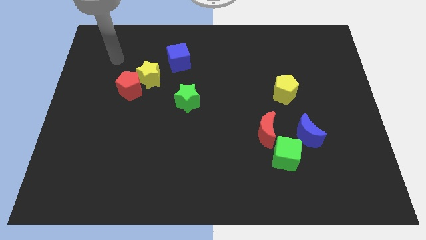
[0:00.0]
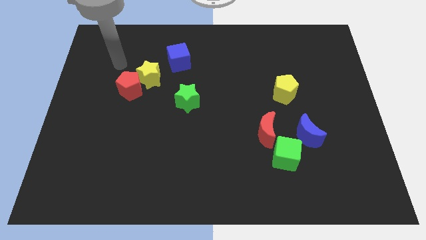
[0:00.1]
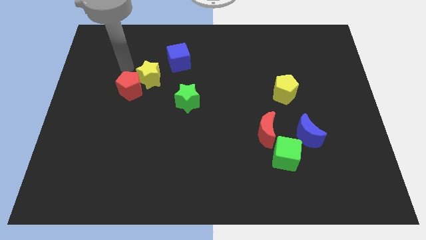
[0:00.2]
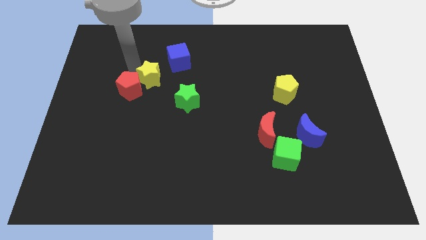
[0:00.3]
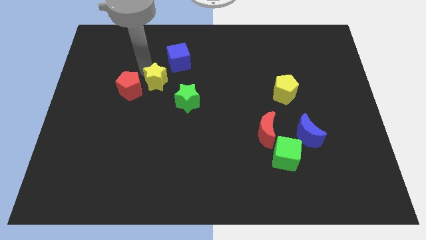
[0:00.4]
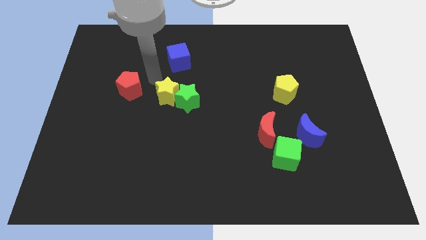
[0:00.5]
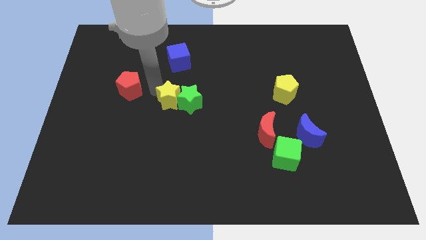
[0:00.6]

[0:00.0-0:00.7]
separate the red pentagon from the yellow star

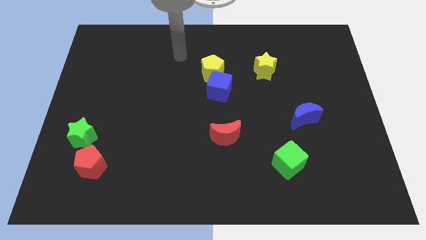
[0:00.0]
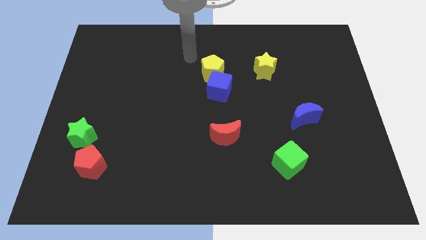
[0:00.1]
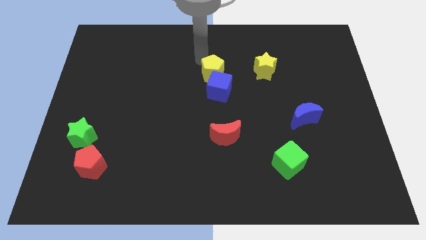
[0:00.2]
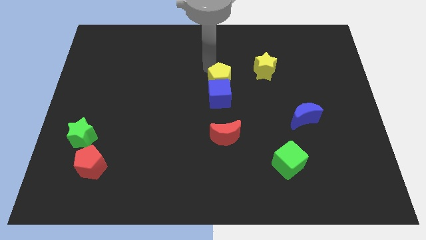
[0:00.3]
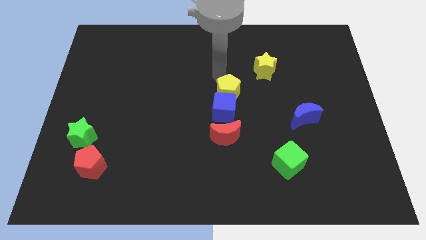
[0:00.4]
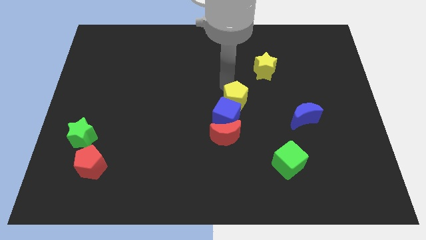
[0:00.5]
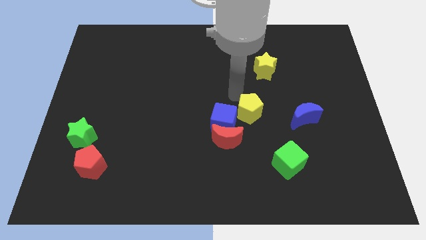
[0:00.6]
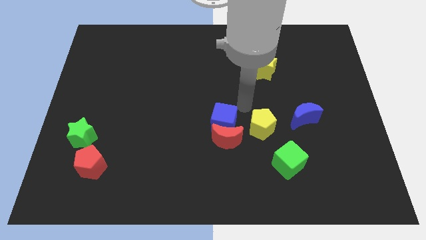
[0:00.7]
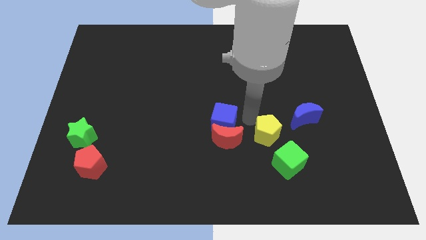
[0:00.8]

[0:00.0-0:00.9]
pull the blue cube apart from the yellow pentagon

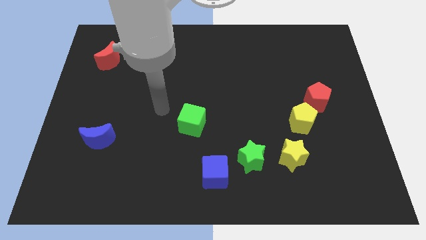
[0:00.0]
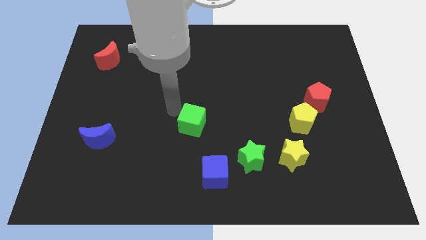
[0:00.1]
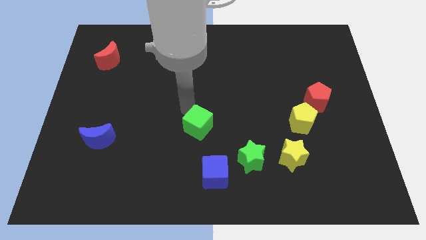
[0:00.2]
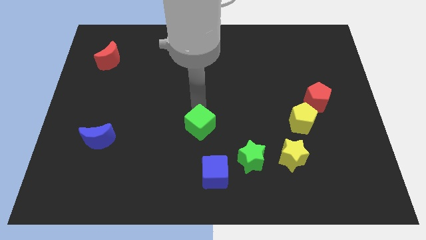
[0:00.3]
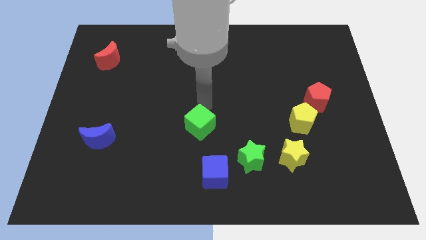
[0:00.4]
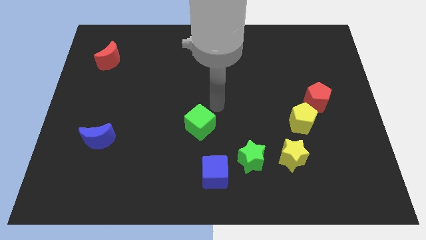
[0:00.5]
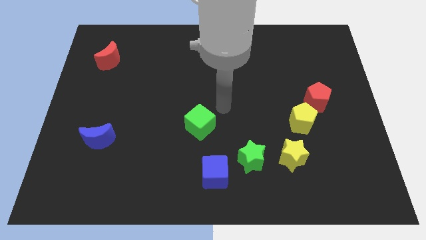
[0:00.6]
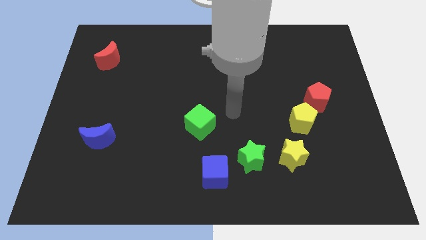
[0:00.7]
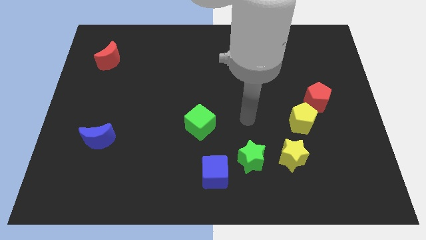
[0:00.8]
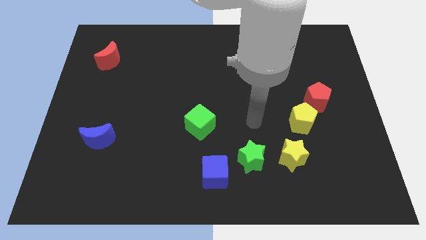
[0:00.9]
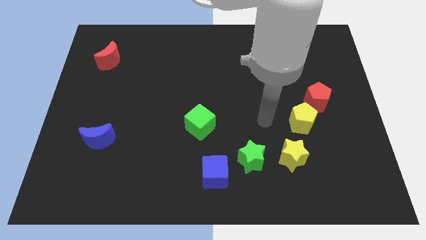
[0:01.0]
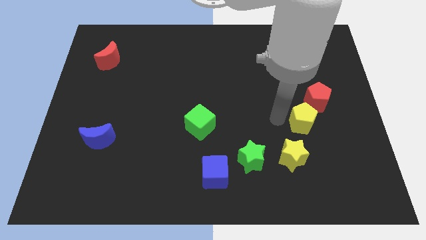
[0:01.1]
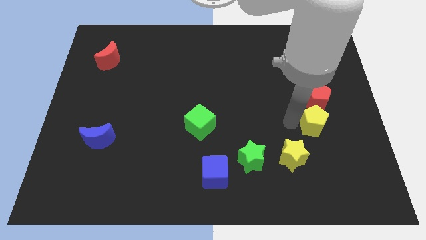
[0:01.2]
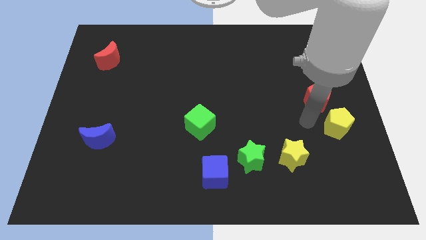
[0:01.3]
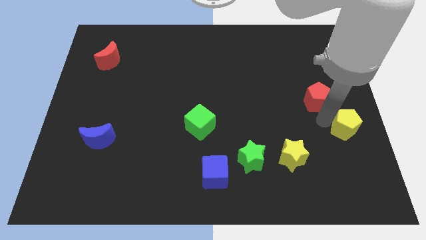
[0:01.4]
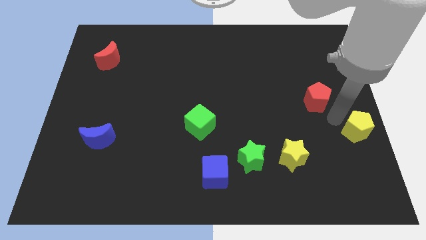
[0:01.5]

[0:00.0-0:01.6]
pull the red pentagon apart from the yellow pentagon

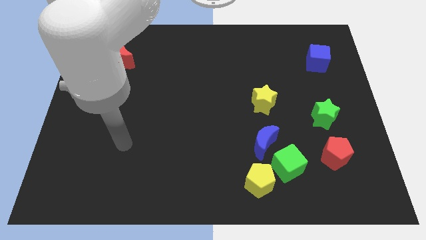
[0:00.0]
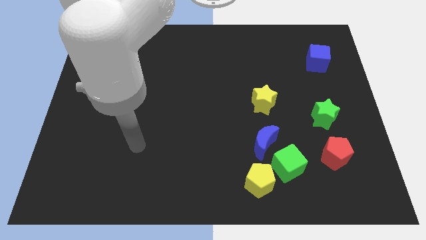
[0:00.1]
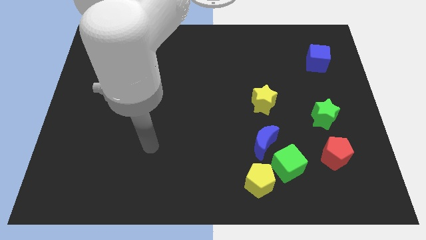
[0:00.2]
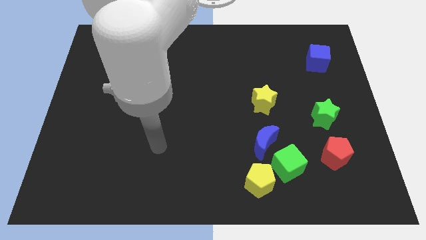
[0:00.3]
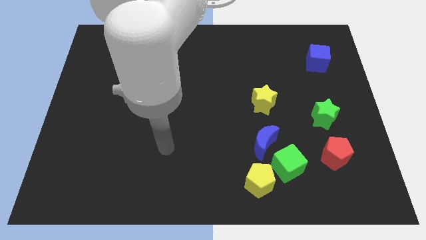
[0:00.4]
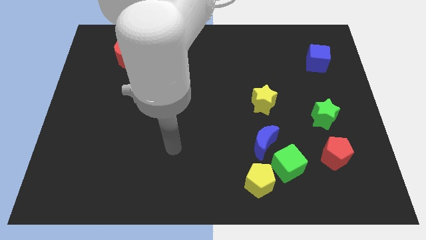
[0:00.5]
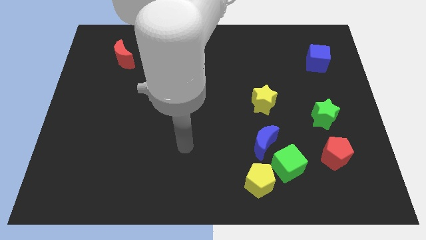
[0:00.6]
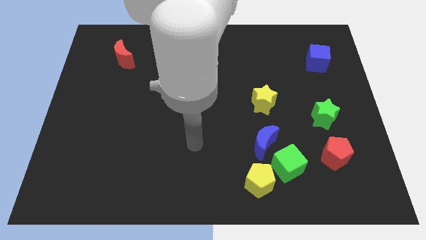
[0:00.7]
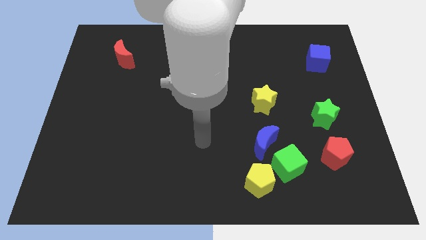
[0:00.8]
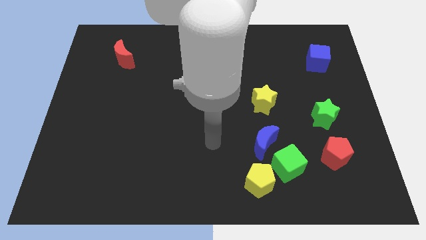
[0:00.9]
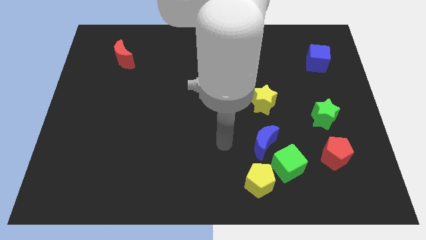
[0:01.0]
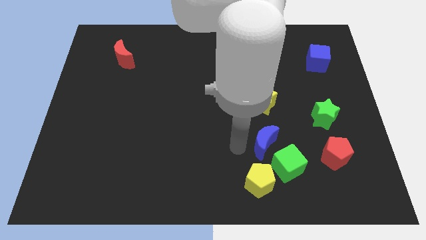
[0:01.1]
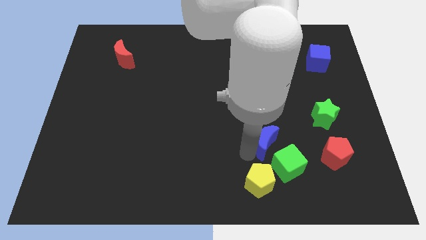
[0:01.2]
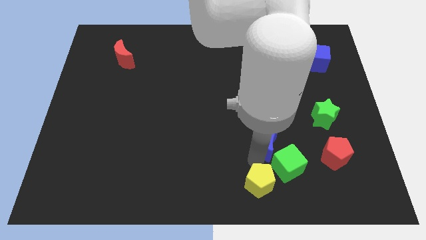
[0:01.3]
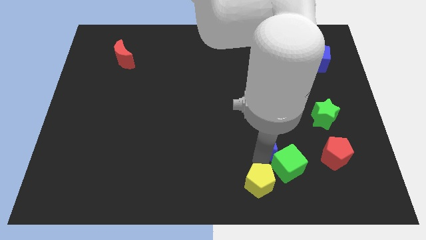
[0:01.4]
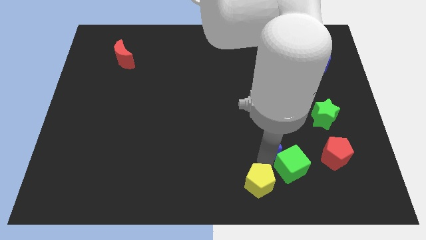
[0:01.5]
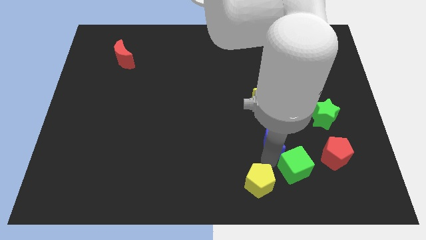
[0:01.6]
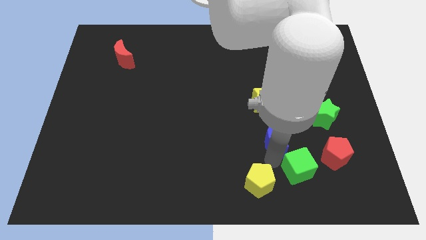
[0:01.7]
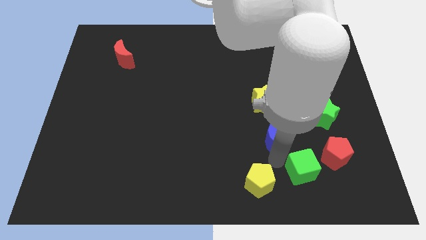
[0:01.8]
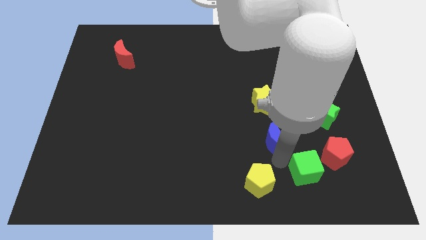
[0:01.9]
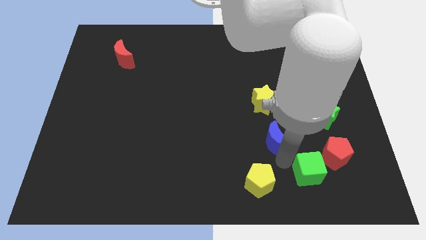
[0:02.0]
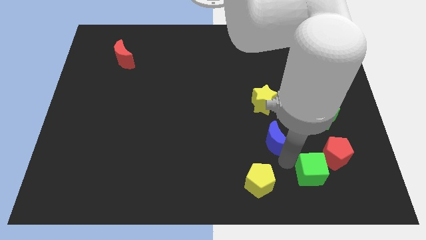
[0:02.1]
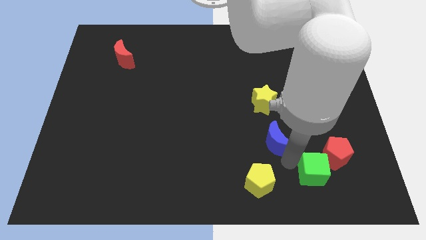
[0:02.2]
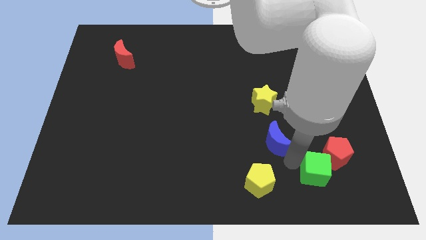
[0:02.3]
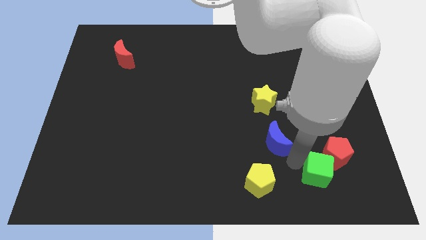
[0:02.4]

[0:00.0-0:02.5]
move the green cube away from the blue moon and yellow pentagon

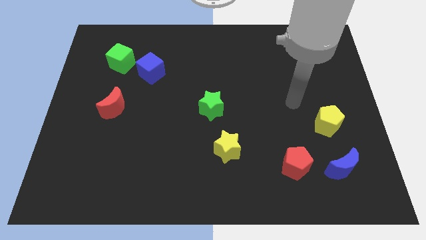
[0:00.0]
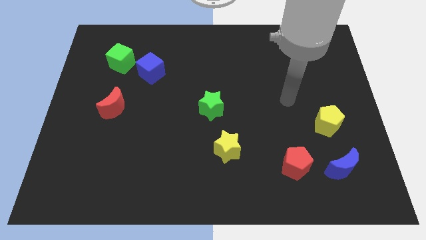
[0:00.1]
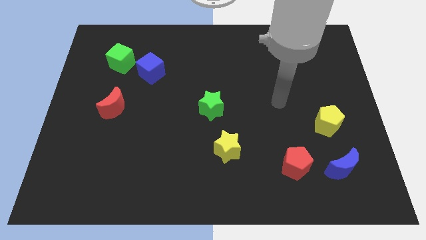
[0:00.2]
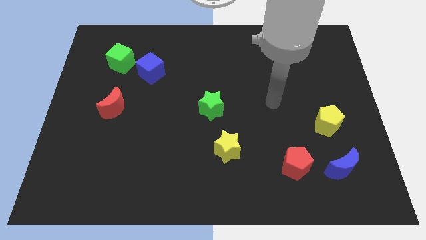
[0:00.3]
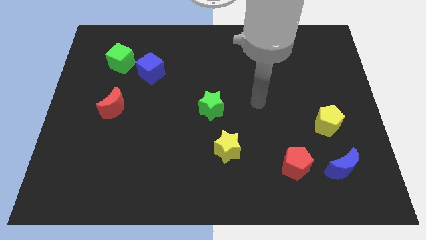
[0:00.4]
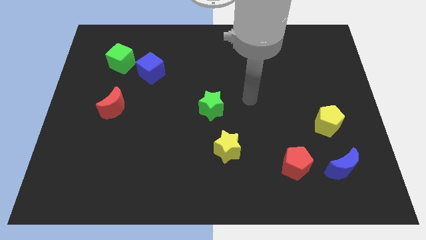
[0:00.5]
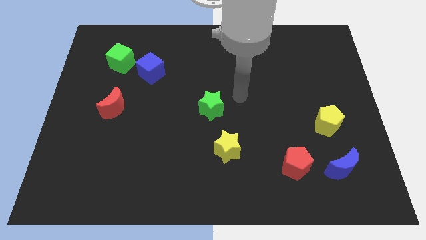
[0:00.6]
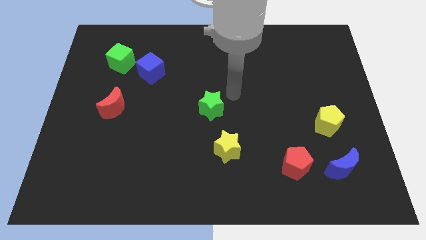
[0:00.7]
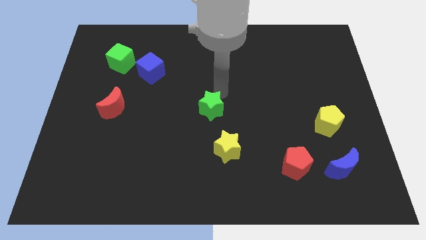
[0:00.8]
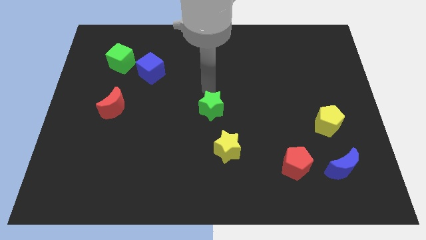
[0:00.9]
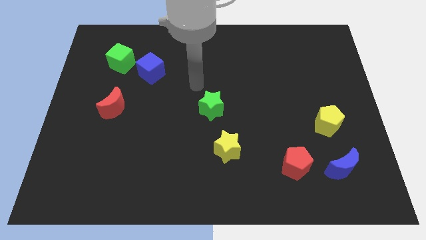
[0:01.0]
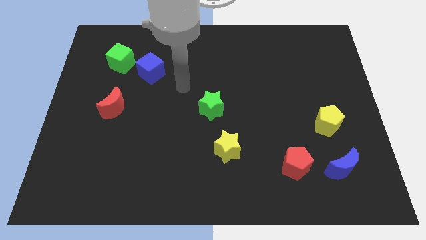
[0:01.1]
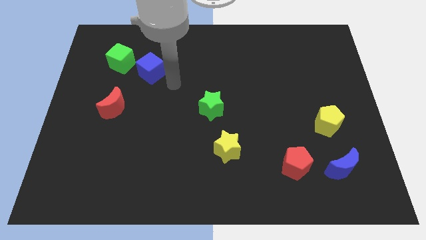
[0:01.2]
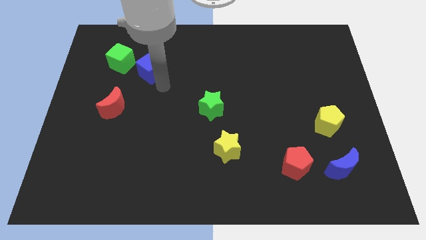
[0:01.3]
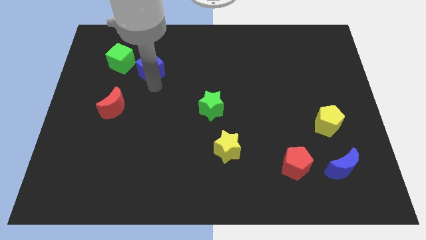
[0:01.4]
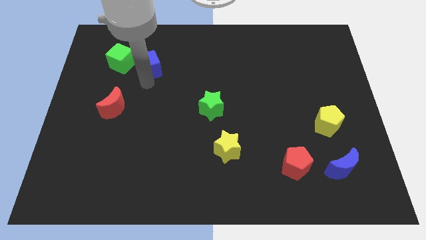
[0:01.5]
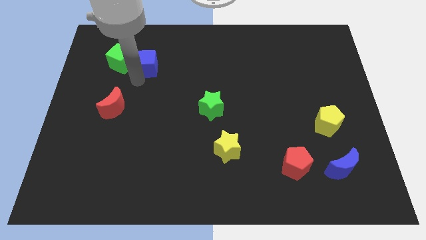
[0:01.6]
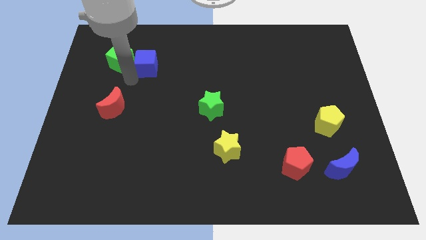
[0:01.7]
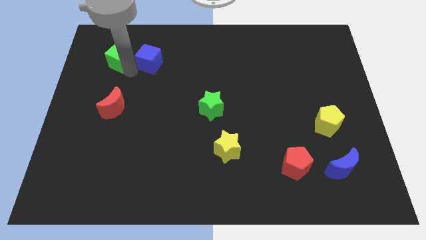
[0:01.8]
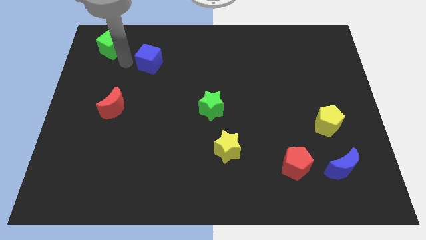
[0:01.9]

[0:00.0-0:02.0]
pull the blue cube apart from the green cube

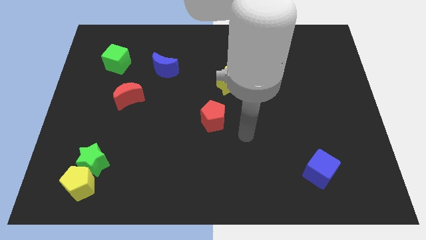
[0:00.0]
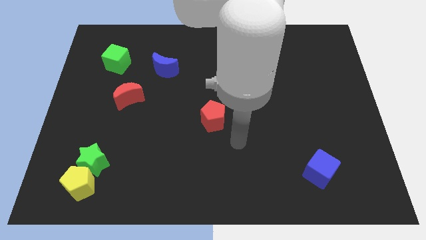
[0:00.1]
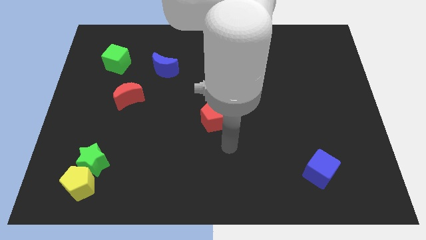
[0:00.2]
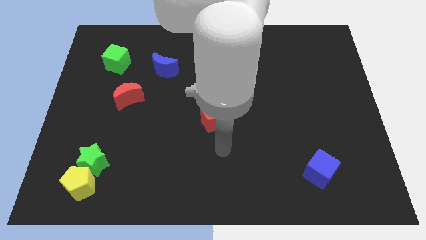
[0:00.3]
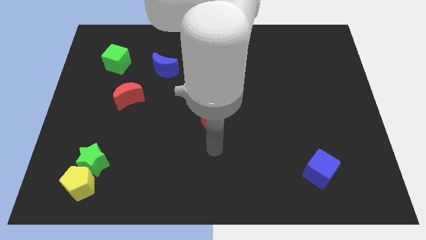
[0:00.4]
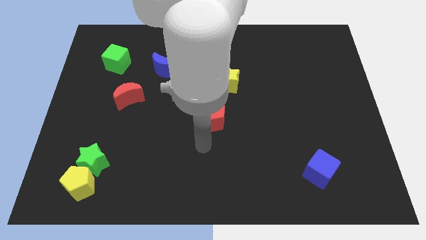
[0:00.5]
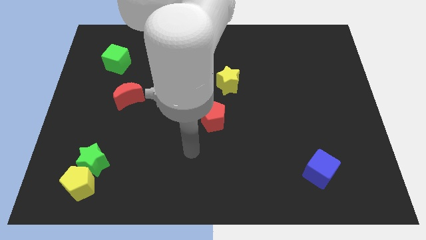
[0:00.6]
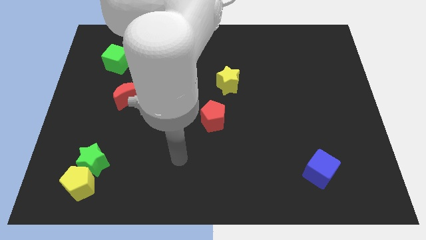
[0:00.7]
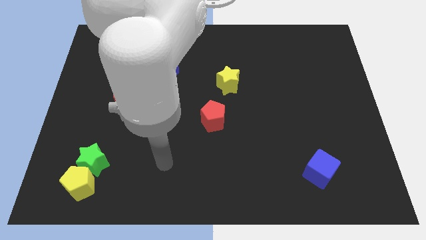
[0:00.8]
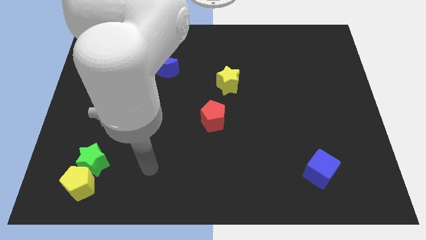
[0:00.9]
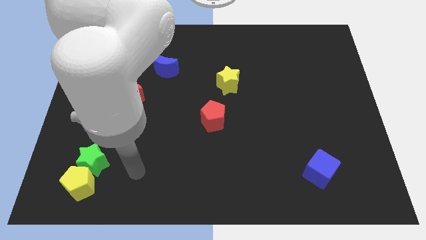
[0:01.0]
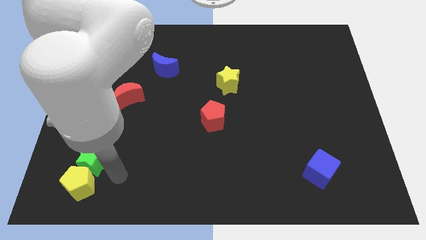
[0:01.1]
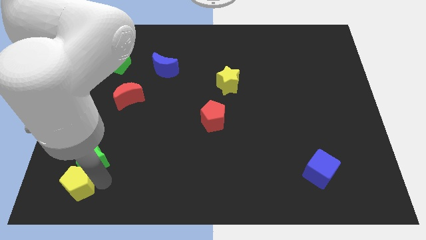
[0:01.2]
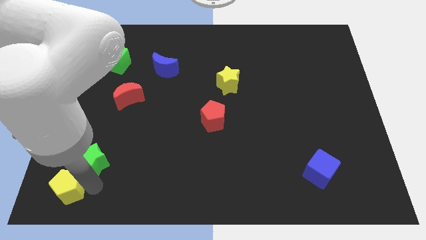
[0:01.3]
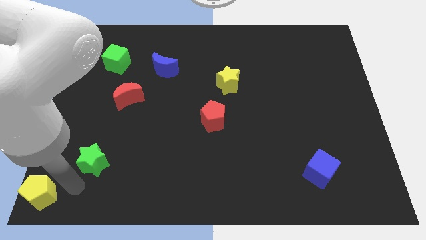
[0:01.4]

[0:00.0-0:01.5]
move the green star away from the yellow pentagon
